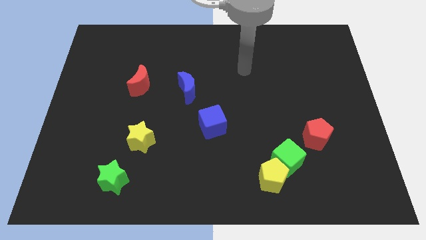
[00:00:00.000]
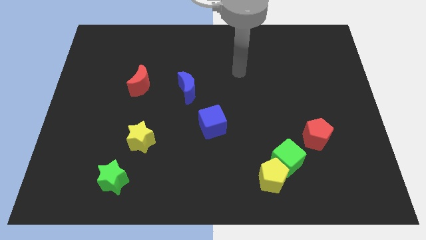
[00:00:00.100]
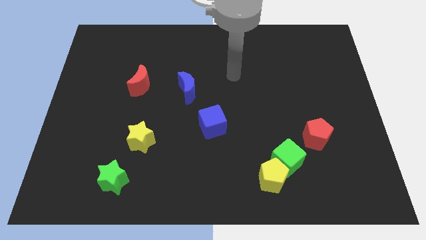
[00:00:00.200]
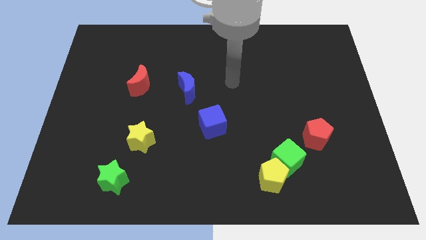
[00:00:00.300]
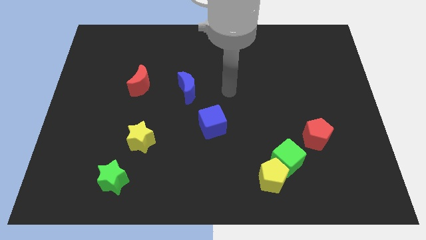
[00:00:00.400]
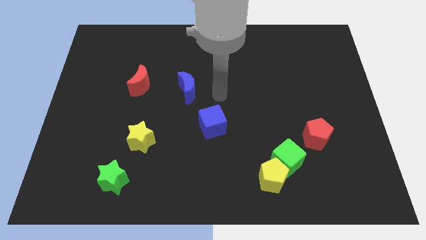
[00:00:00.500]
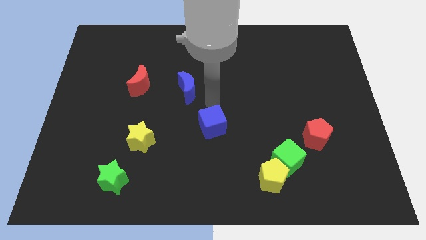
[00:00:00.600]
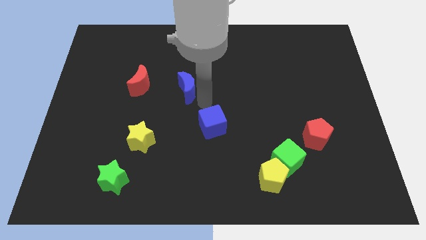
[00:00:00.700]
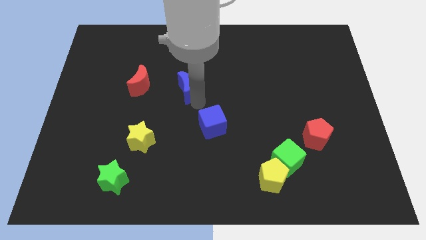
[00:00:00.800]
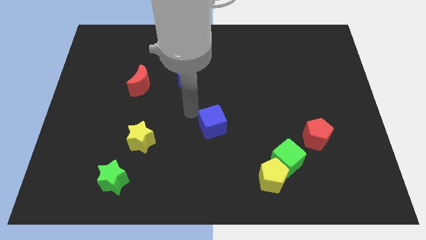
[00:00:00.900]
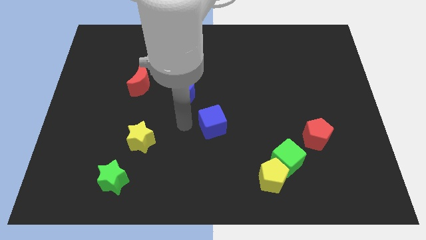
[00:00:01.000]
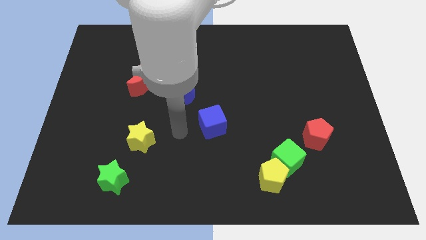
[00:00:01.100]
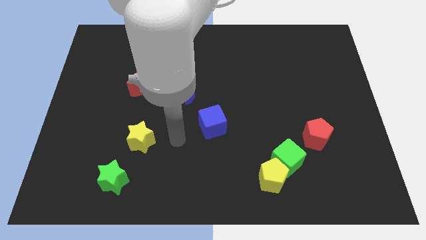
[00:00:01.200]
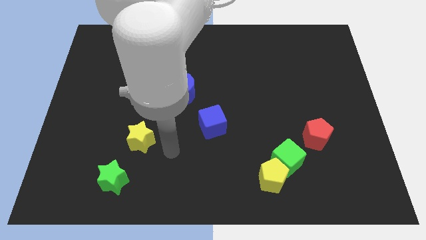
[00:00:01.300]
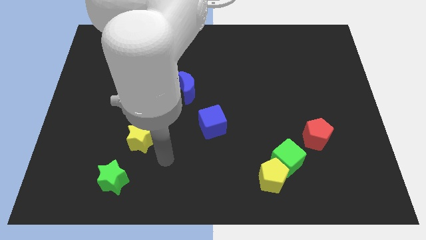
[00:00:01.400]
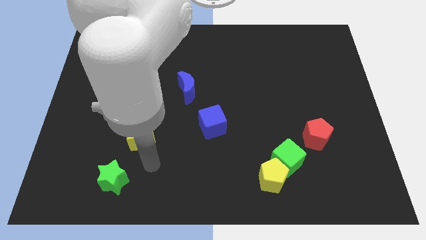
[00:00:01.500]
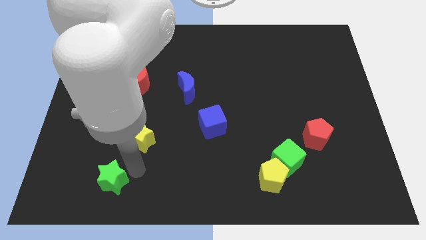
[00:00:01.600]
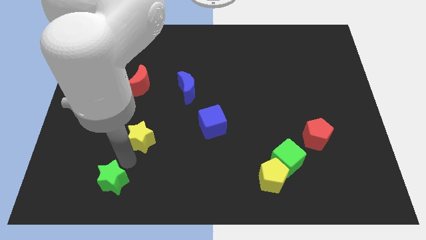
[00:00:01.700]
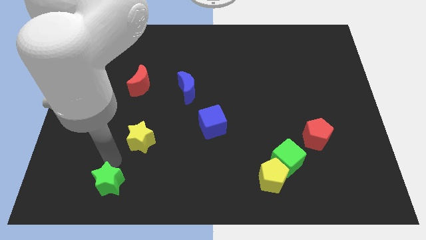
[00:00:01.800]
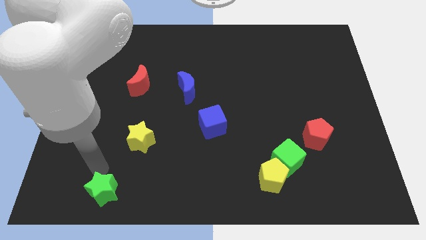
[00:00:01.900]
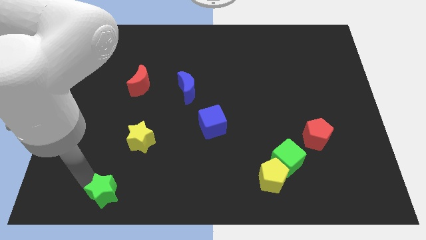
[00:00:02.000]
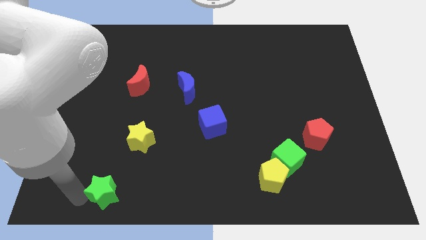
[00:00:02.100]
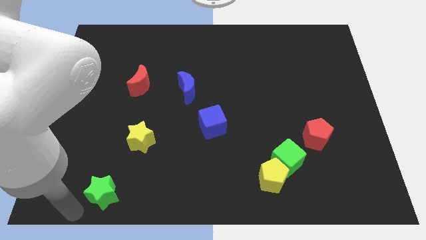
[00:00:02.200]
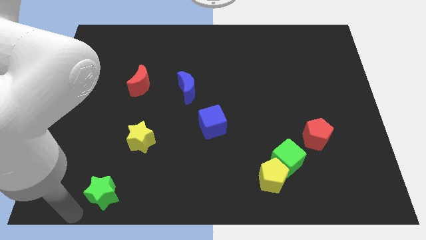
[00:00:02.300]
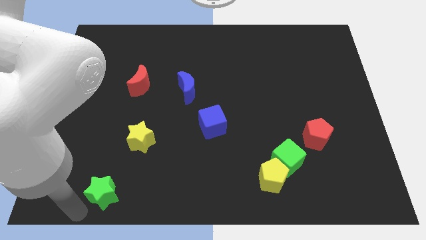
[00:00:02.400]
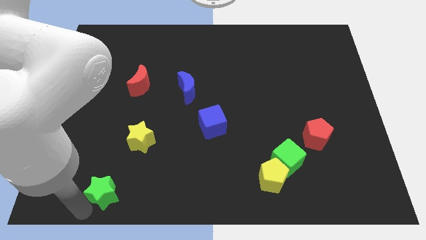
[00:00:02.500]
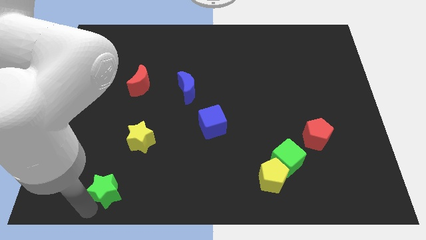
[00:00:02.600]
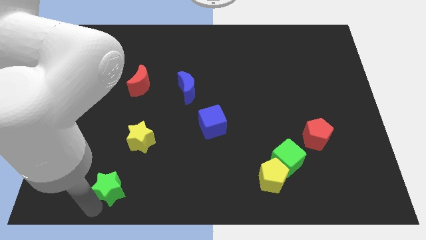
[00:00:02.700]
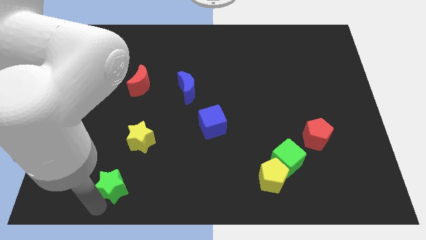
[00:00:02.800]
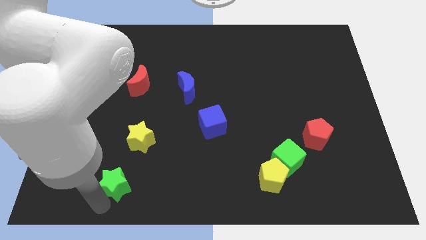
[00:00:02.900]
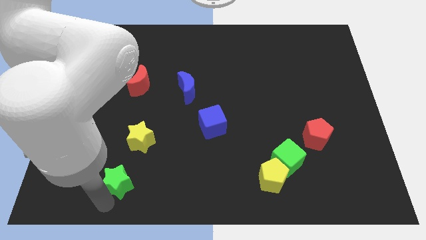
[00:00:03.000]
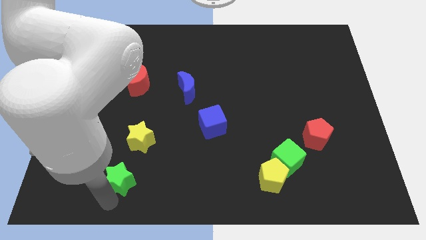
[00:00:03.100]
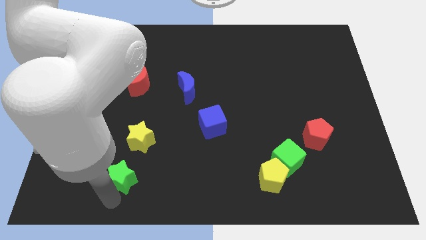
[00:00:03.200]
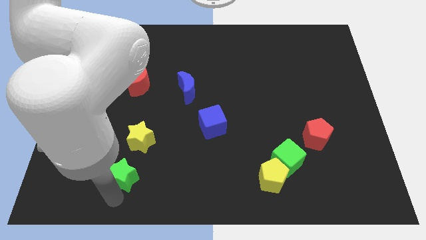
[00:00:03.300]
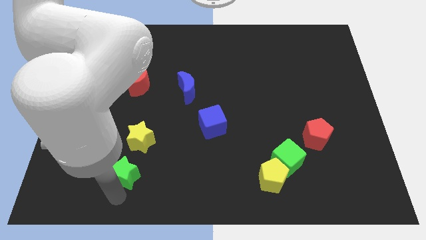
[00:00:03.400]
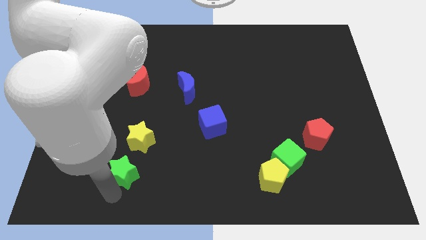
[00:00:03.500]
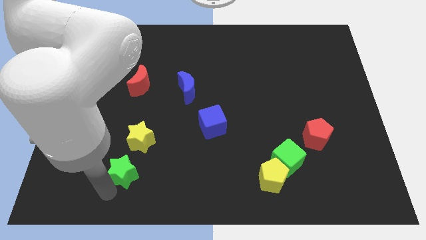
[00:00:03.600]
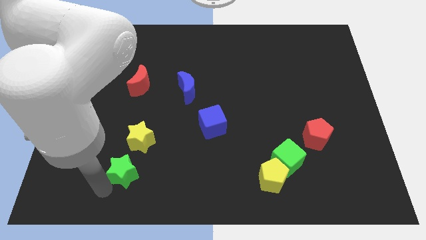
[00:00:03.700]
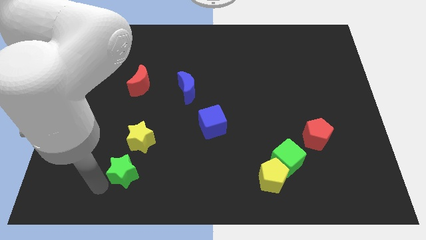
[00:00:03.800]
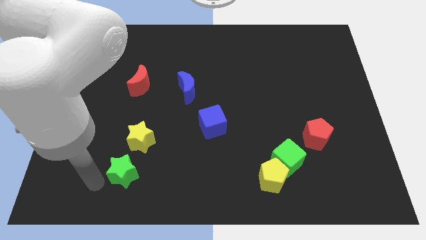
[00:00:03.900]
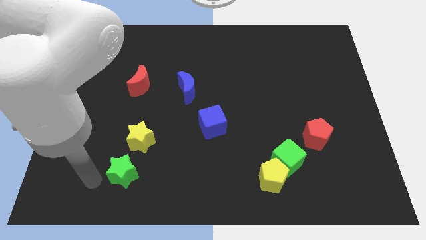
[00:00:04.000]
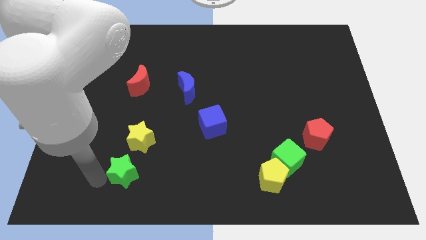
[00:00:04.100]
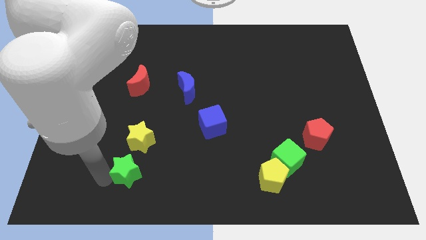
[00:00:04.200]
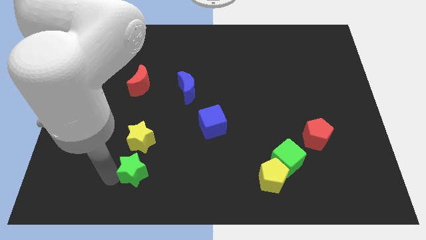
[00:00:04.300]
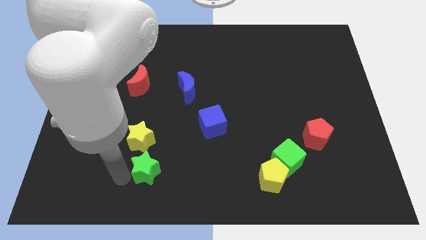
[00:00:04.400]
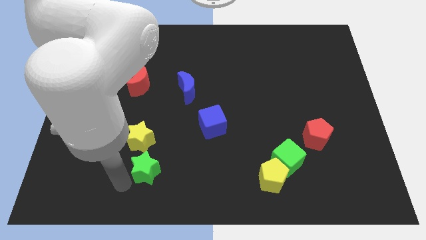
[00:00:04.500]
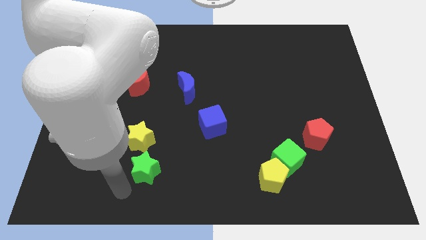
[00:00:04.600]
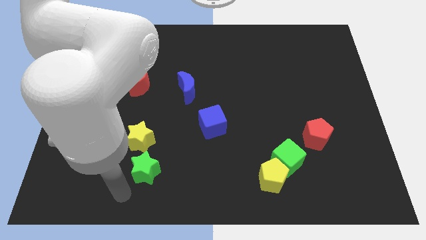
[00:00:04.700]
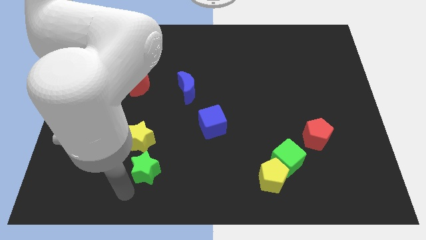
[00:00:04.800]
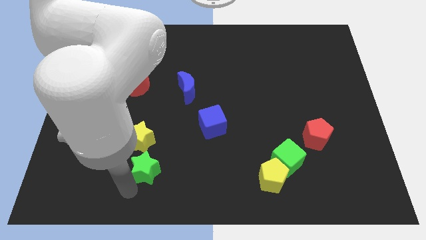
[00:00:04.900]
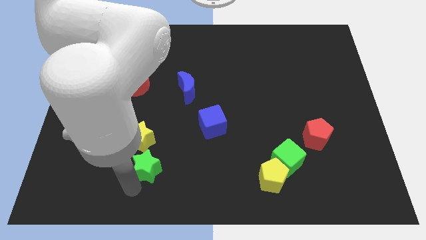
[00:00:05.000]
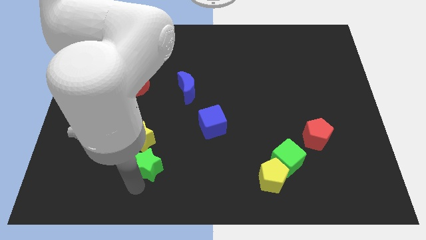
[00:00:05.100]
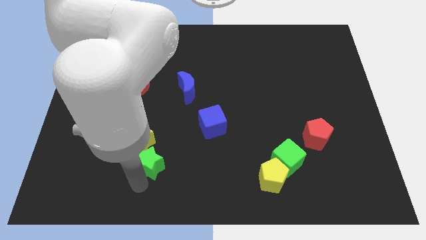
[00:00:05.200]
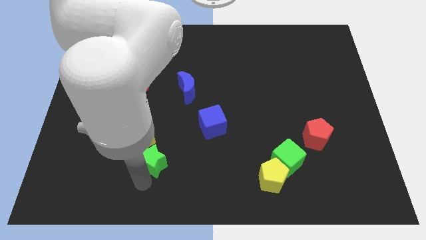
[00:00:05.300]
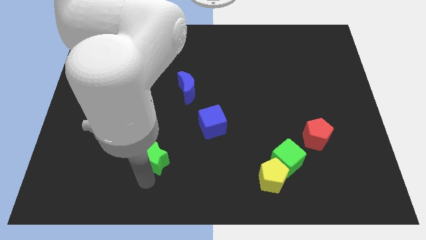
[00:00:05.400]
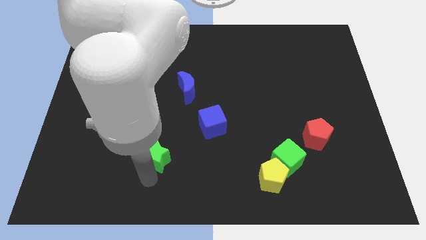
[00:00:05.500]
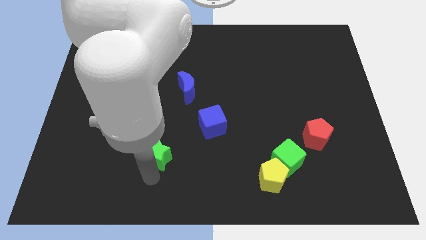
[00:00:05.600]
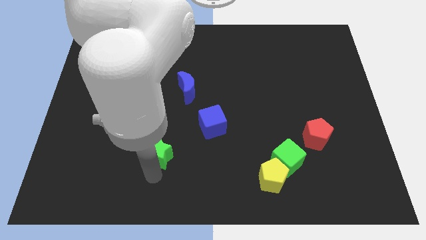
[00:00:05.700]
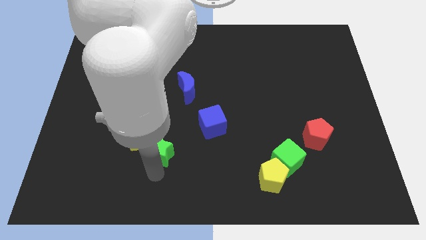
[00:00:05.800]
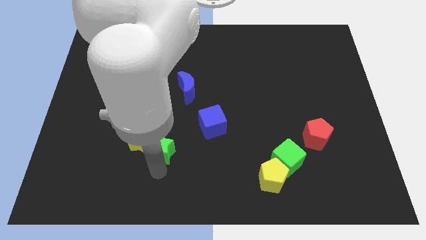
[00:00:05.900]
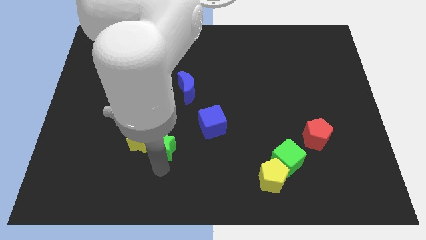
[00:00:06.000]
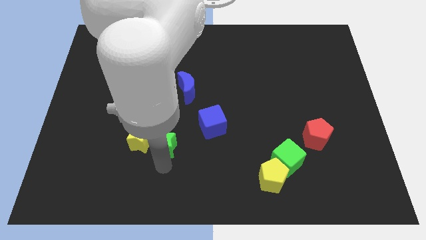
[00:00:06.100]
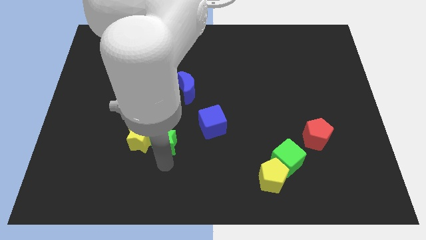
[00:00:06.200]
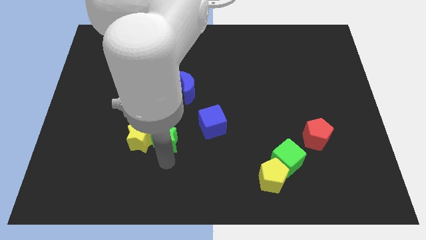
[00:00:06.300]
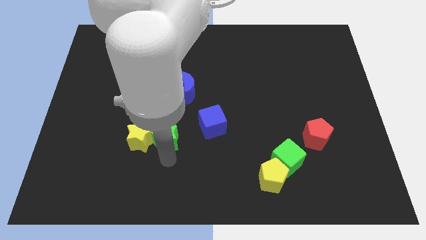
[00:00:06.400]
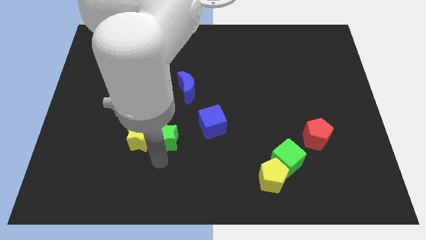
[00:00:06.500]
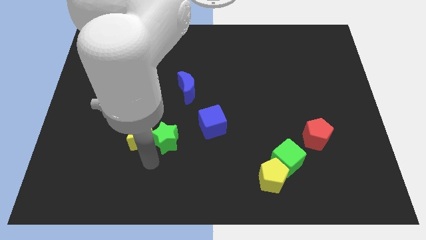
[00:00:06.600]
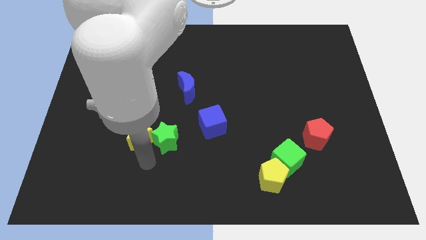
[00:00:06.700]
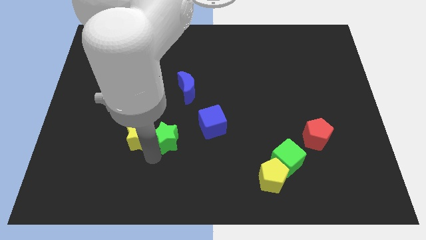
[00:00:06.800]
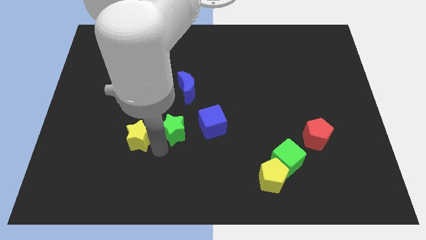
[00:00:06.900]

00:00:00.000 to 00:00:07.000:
move the green star to the center
